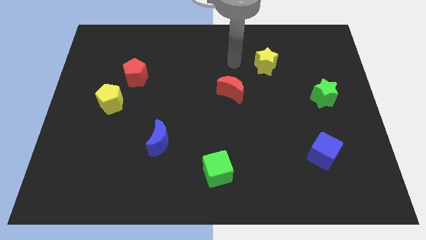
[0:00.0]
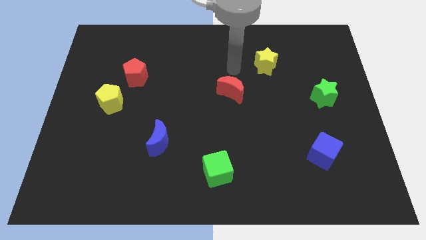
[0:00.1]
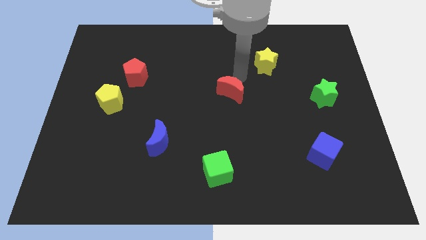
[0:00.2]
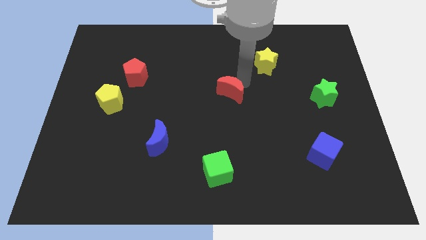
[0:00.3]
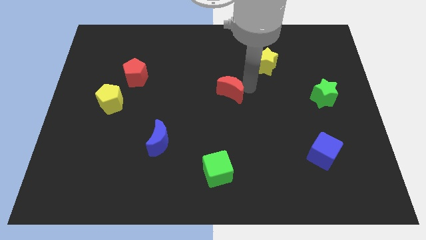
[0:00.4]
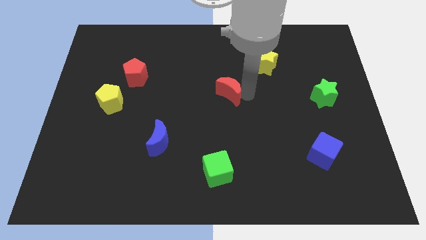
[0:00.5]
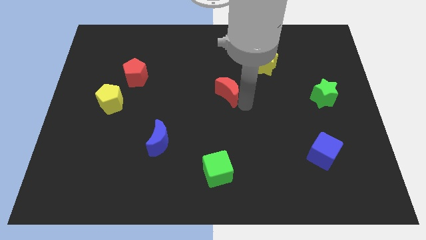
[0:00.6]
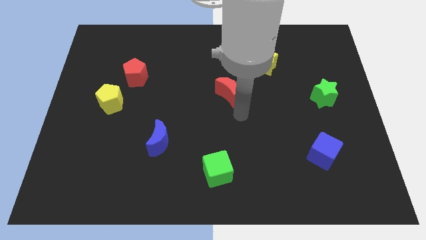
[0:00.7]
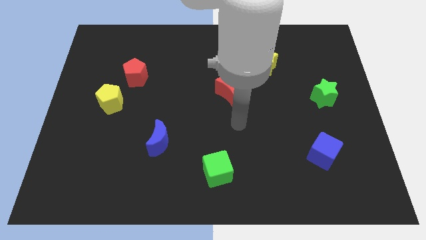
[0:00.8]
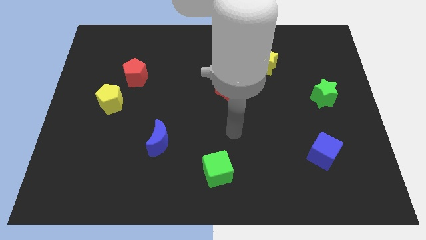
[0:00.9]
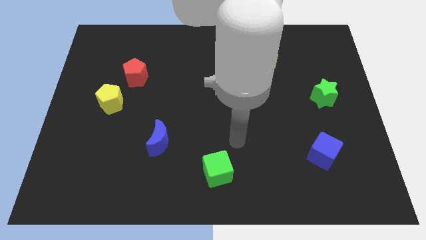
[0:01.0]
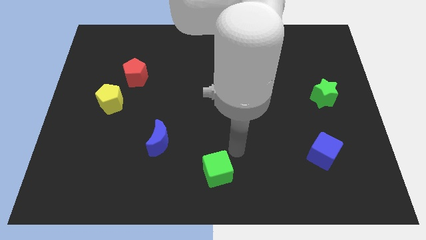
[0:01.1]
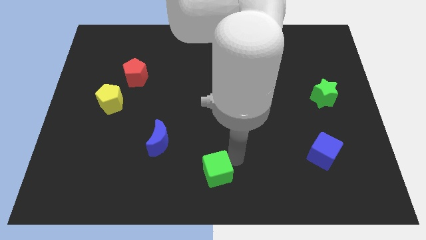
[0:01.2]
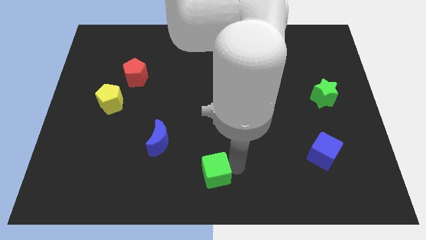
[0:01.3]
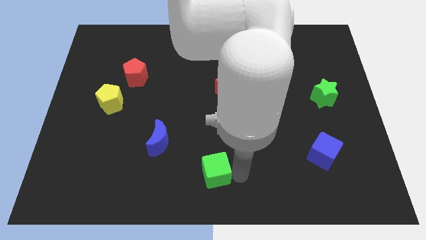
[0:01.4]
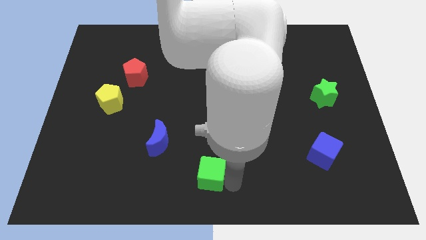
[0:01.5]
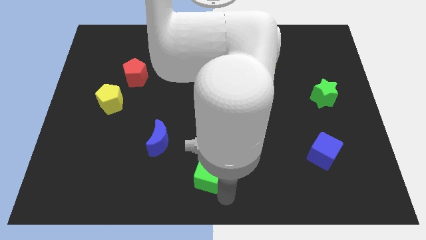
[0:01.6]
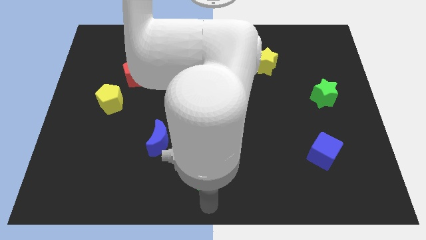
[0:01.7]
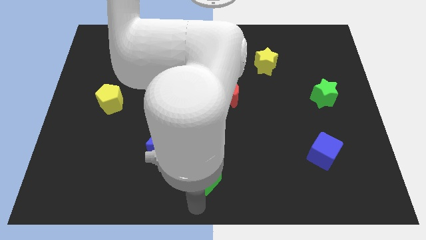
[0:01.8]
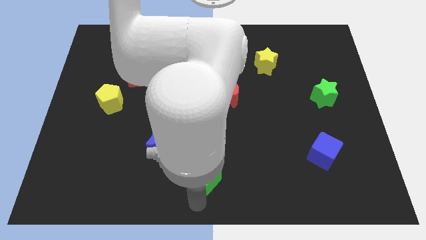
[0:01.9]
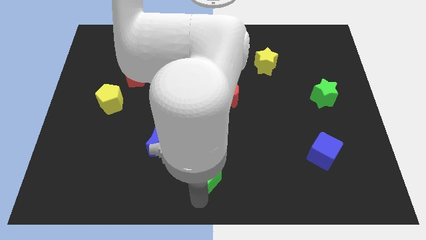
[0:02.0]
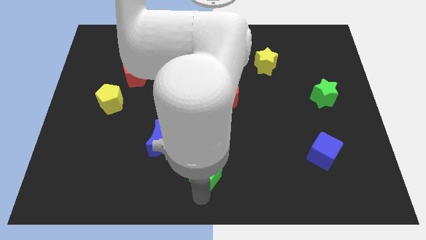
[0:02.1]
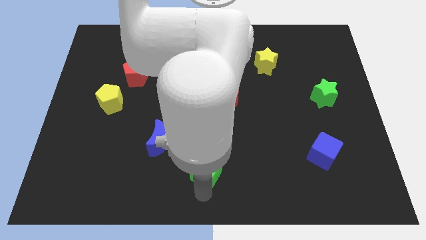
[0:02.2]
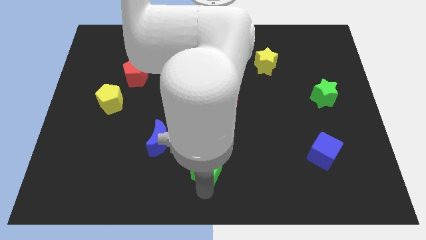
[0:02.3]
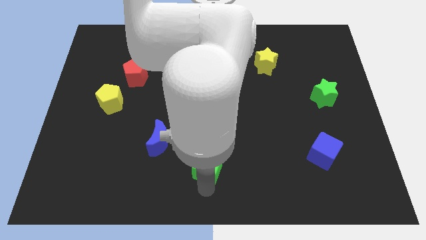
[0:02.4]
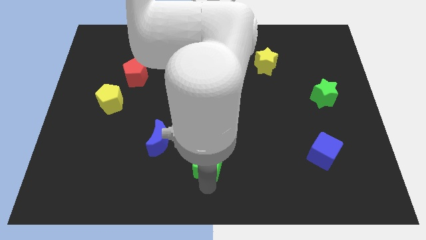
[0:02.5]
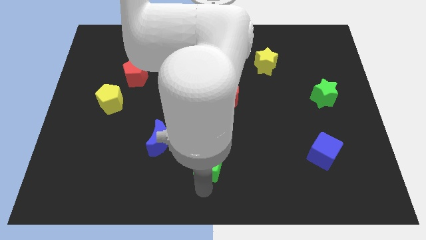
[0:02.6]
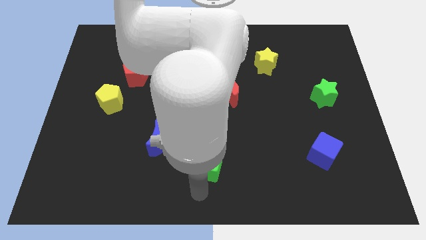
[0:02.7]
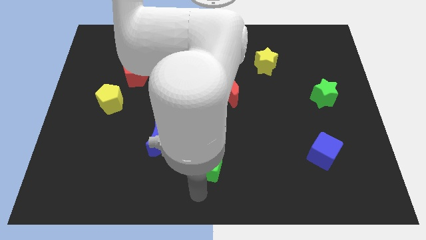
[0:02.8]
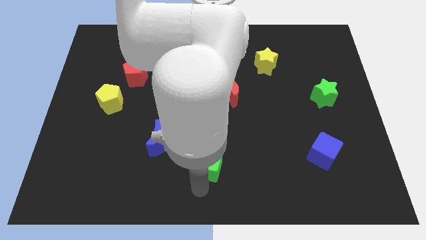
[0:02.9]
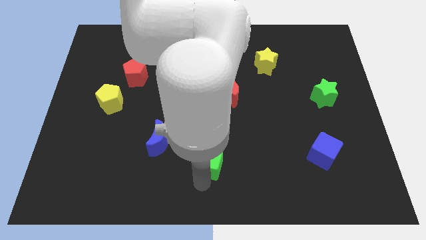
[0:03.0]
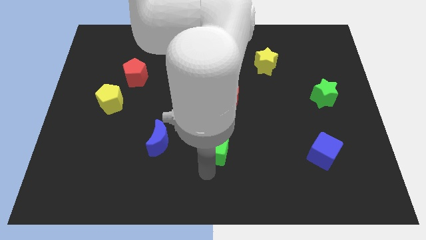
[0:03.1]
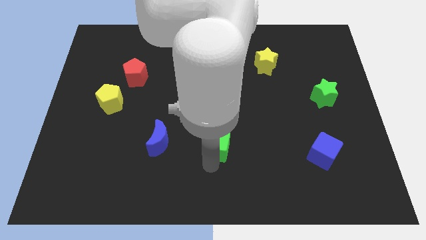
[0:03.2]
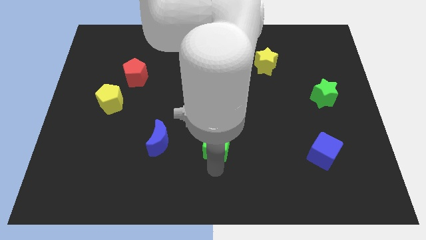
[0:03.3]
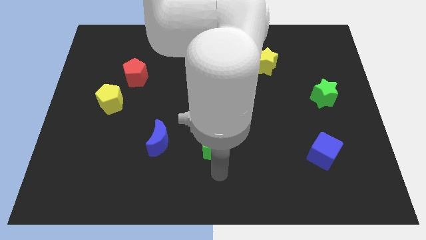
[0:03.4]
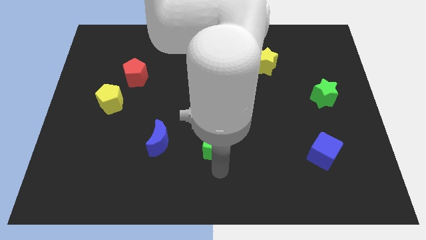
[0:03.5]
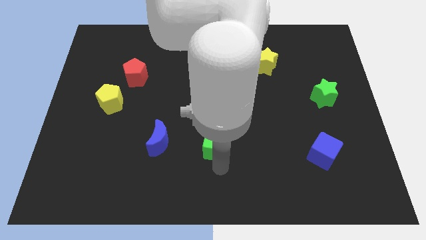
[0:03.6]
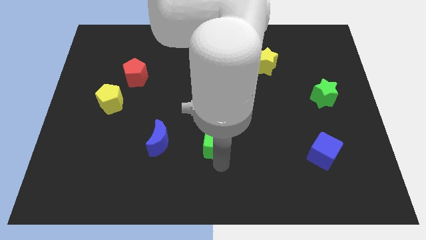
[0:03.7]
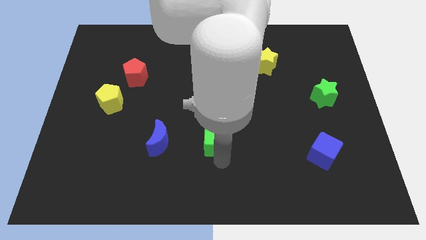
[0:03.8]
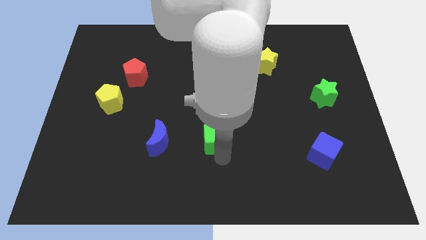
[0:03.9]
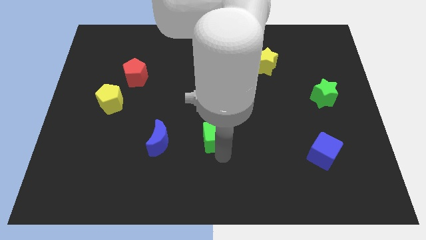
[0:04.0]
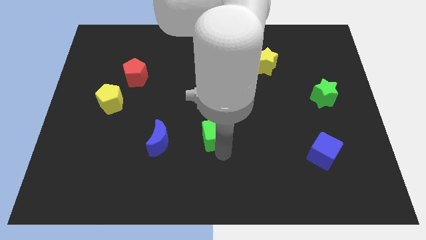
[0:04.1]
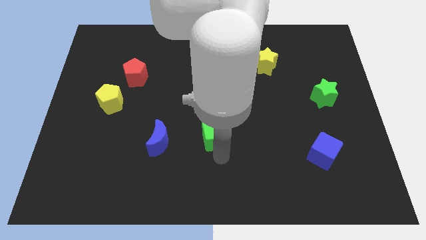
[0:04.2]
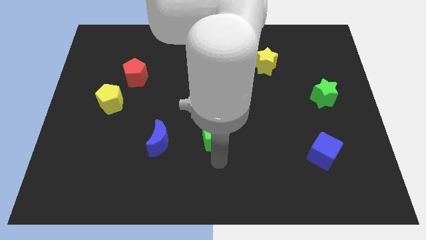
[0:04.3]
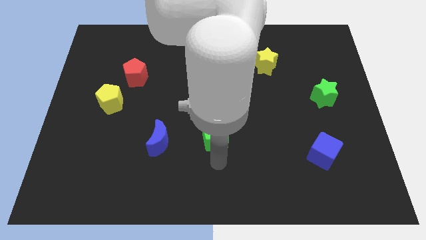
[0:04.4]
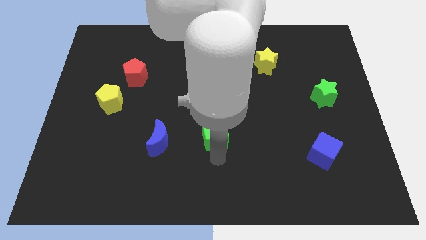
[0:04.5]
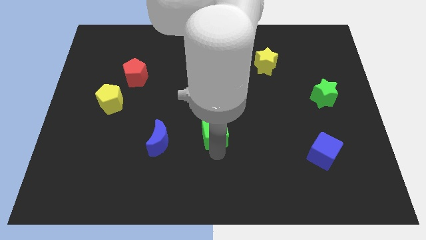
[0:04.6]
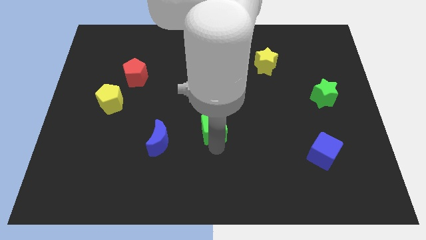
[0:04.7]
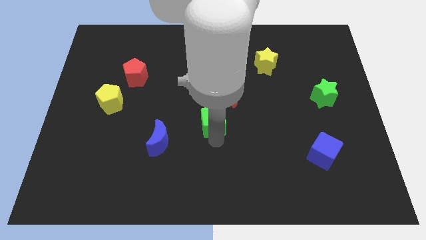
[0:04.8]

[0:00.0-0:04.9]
slide the green cube to the bottom left side of the red moon

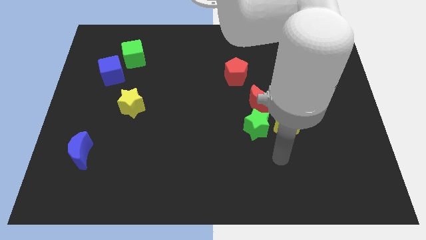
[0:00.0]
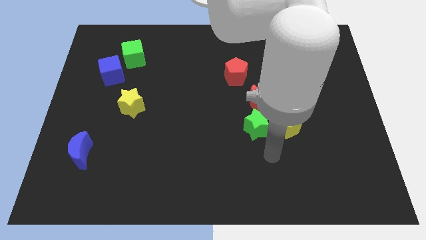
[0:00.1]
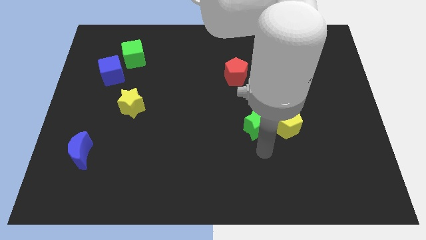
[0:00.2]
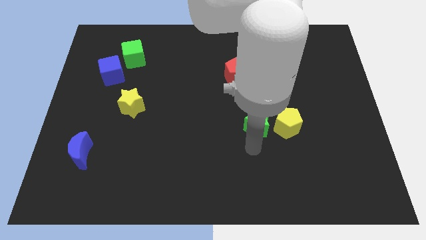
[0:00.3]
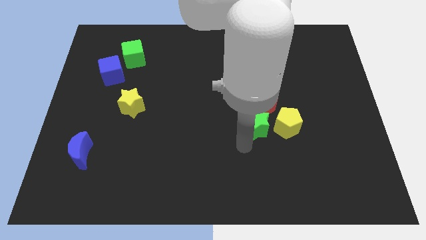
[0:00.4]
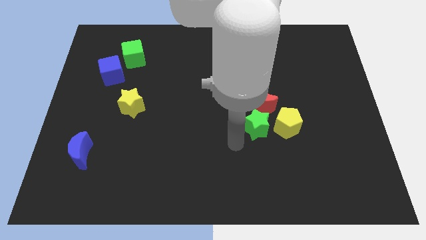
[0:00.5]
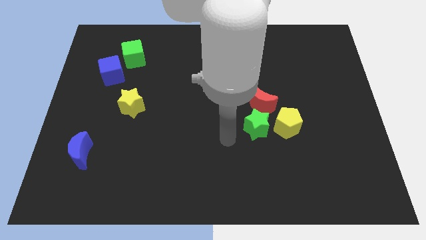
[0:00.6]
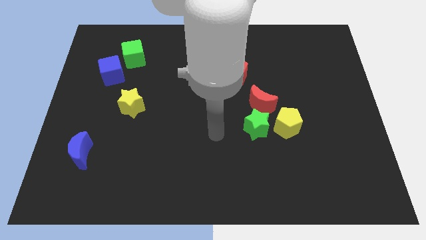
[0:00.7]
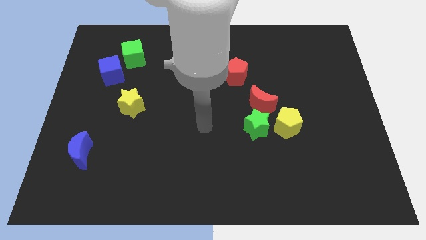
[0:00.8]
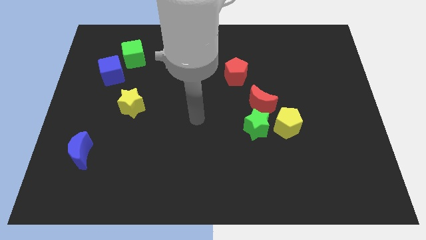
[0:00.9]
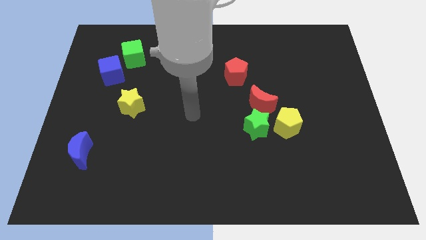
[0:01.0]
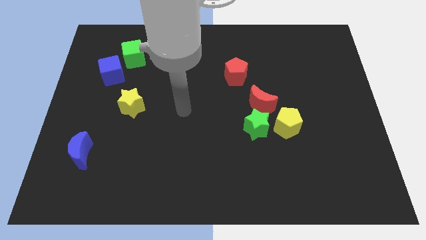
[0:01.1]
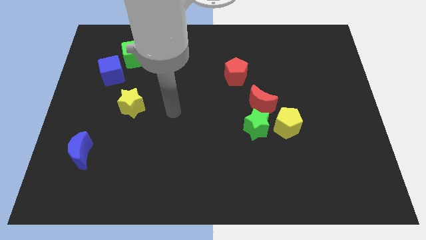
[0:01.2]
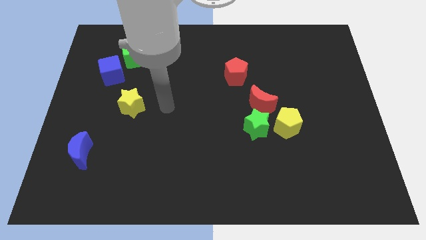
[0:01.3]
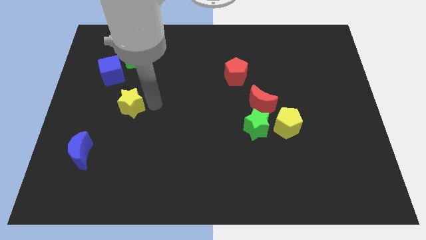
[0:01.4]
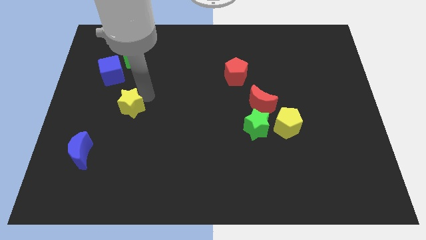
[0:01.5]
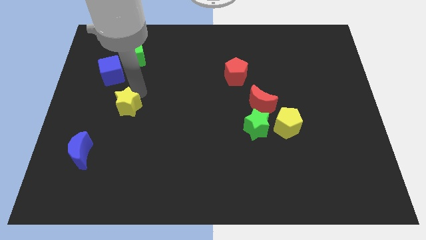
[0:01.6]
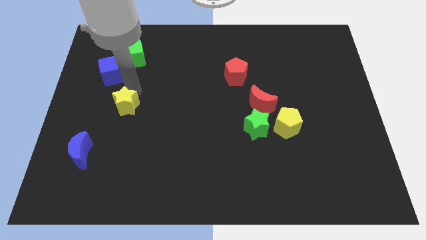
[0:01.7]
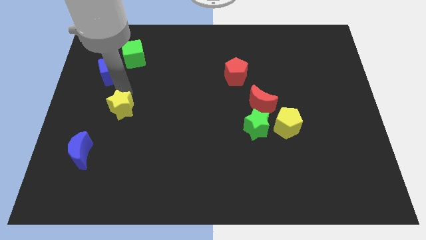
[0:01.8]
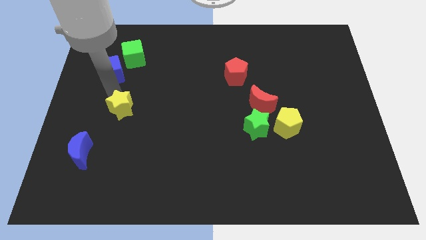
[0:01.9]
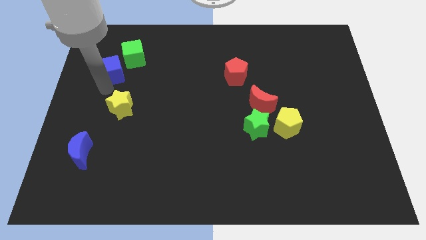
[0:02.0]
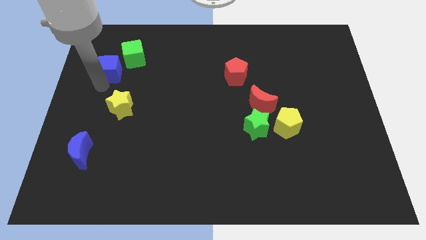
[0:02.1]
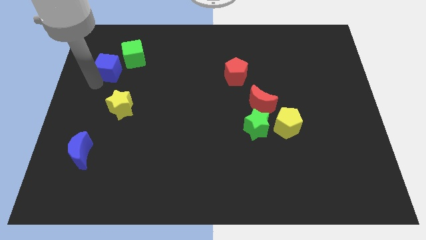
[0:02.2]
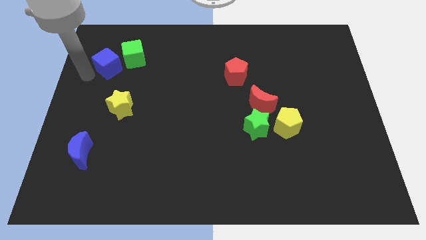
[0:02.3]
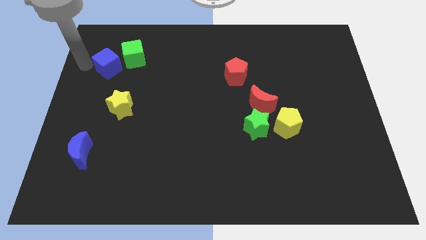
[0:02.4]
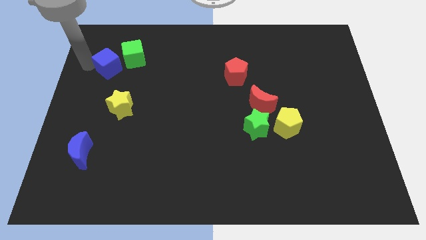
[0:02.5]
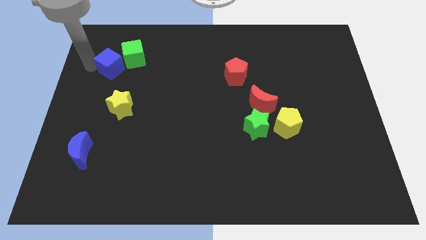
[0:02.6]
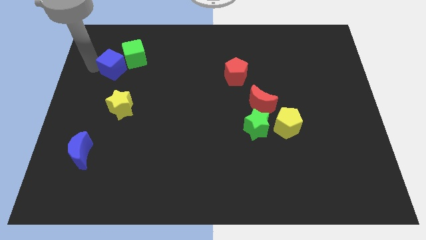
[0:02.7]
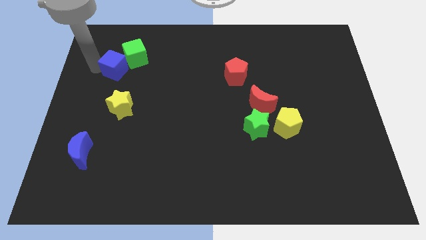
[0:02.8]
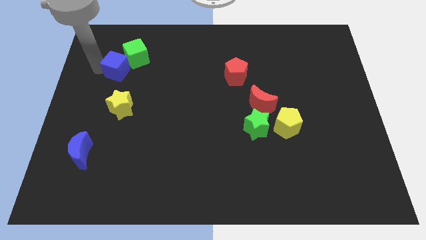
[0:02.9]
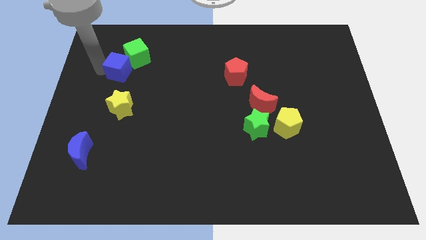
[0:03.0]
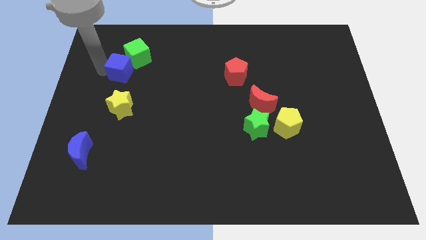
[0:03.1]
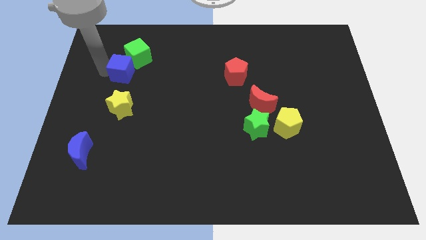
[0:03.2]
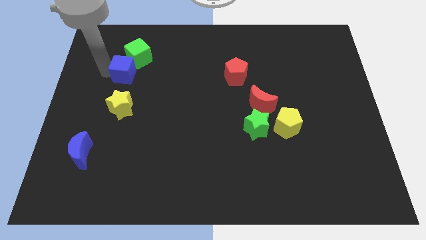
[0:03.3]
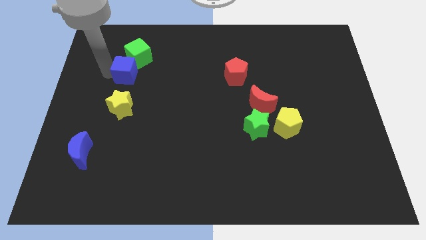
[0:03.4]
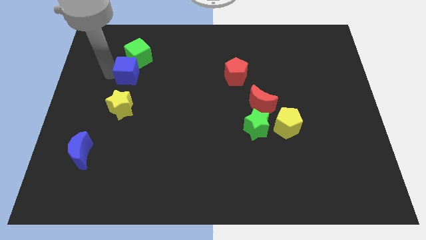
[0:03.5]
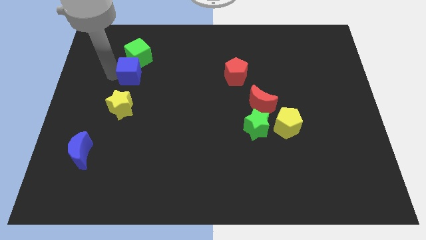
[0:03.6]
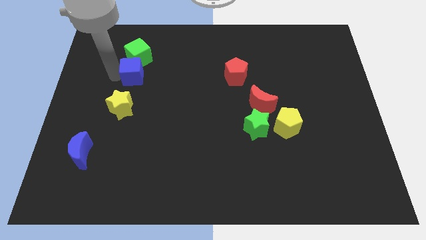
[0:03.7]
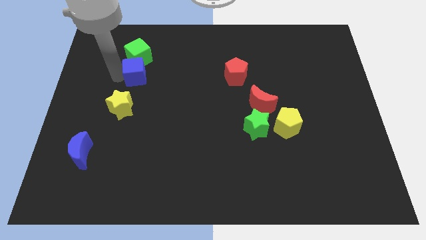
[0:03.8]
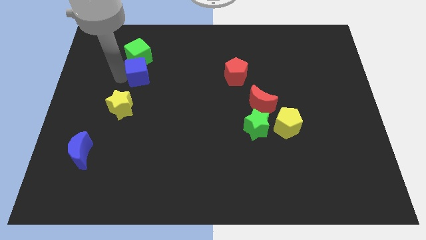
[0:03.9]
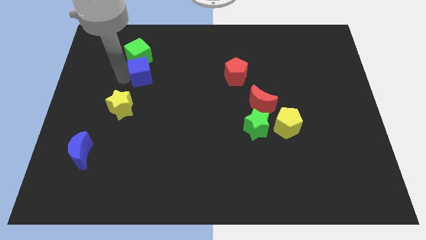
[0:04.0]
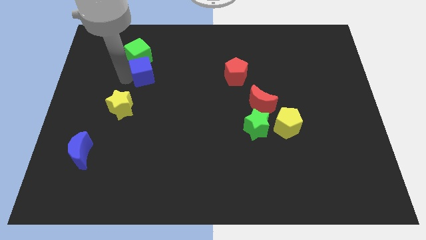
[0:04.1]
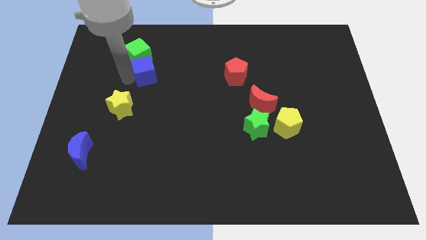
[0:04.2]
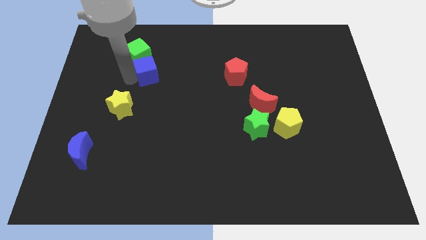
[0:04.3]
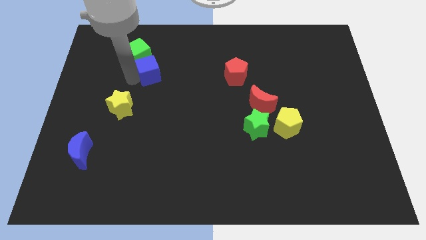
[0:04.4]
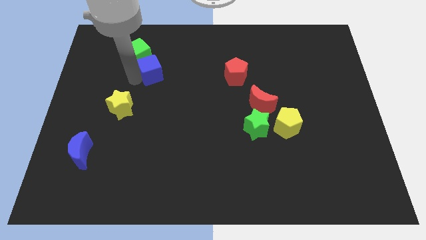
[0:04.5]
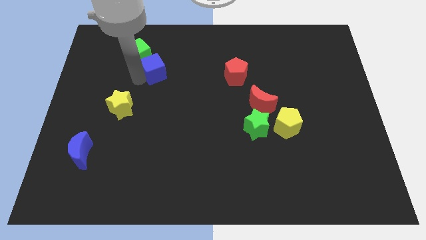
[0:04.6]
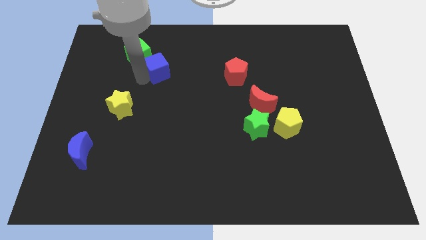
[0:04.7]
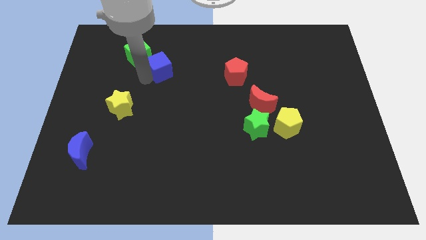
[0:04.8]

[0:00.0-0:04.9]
move the blue cube right of the green cube
